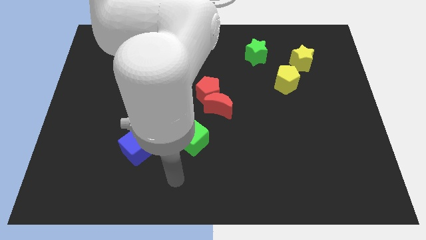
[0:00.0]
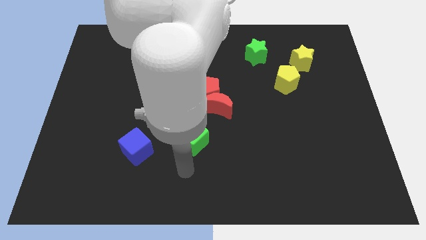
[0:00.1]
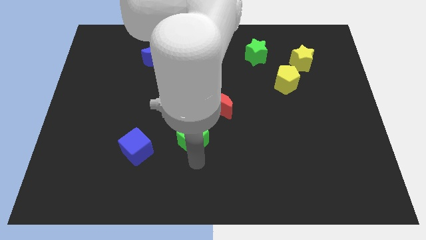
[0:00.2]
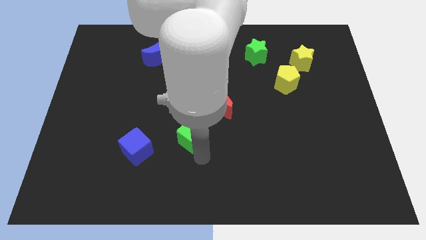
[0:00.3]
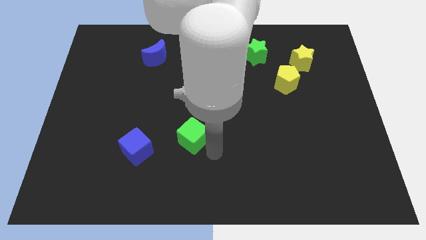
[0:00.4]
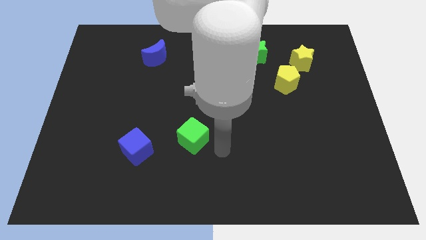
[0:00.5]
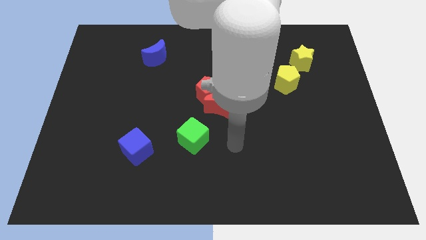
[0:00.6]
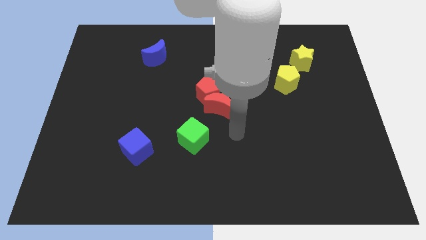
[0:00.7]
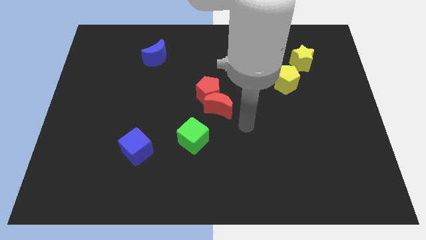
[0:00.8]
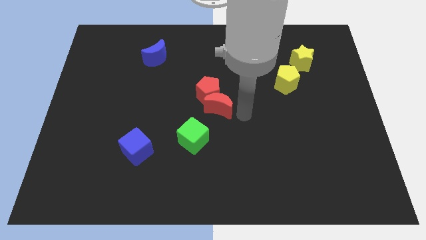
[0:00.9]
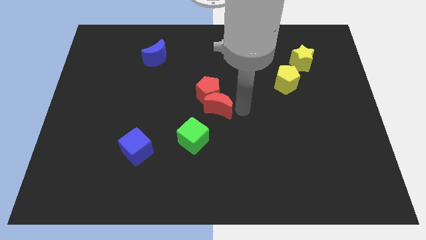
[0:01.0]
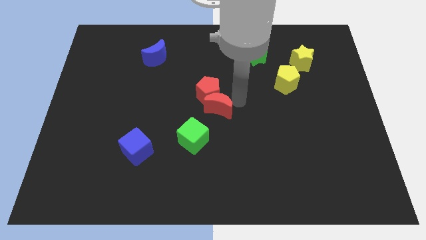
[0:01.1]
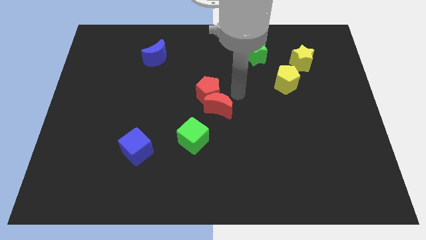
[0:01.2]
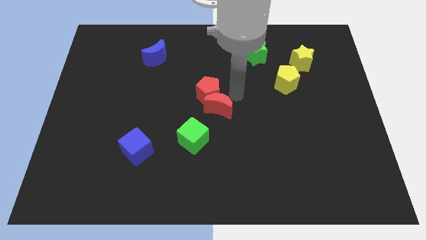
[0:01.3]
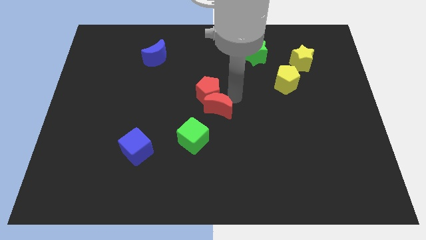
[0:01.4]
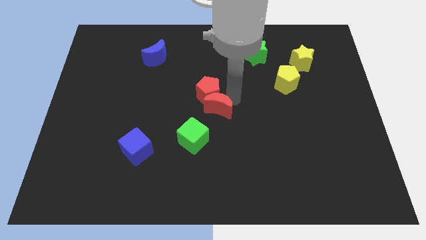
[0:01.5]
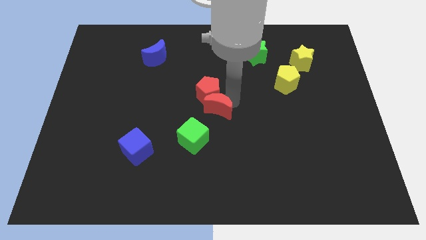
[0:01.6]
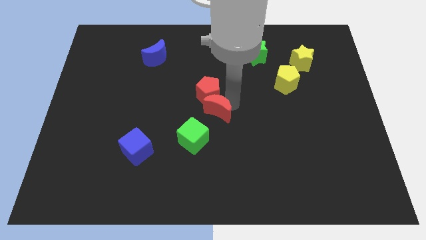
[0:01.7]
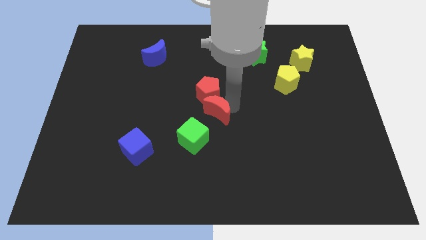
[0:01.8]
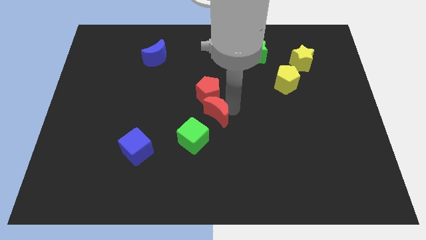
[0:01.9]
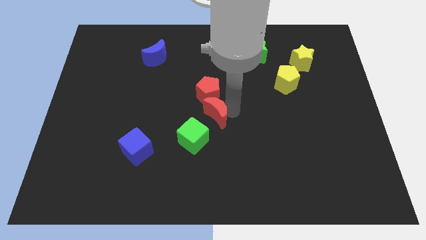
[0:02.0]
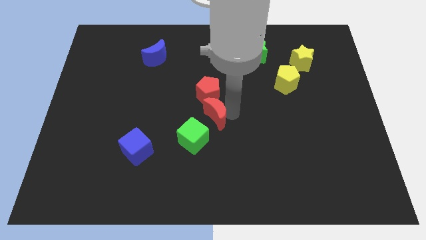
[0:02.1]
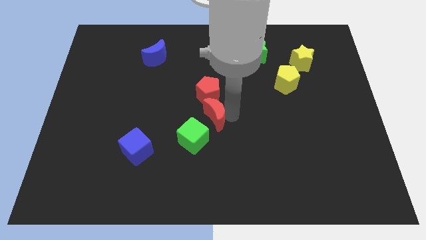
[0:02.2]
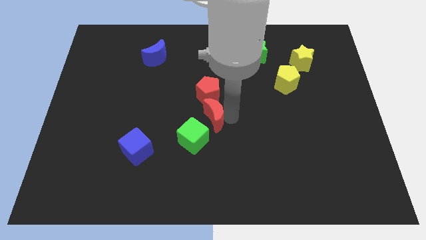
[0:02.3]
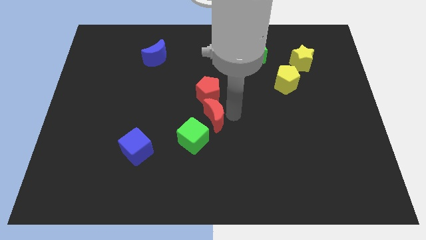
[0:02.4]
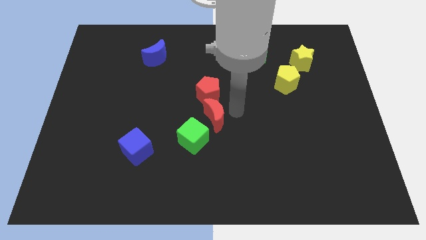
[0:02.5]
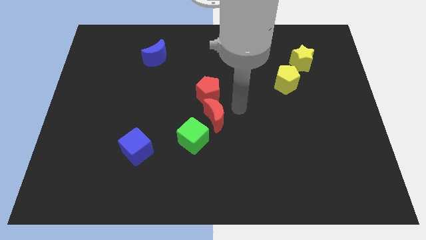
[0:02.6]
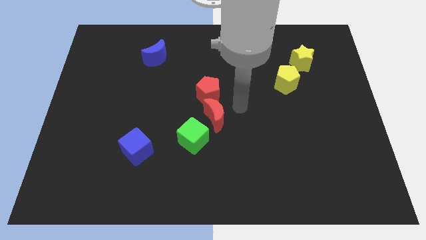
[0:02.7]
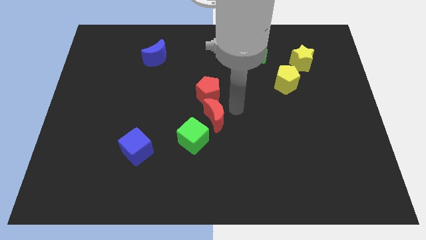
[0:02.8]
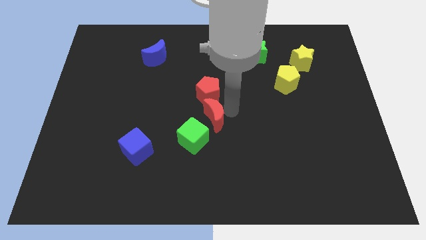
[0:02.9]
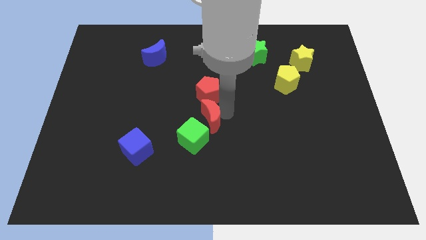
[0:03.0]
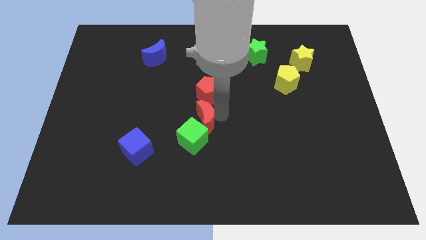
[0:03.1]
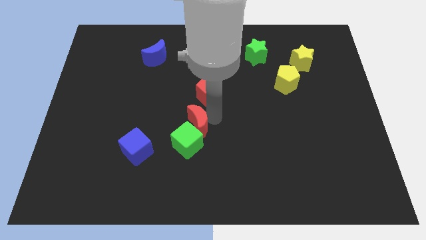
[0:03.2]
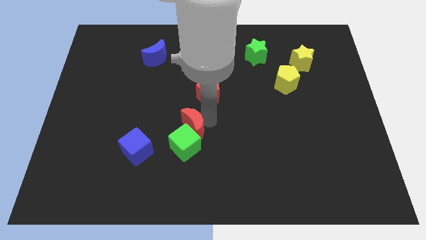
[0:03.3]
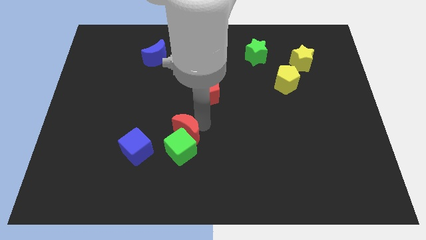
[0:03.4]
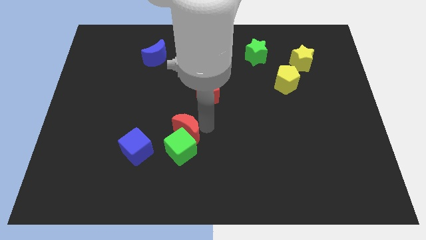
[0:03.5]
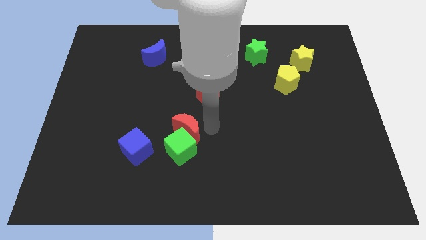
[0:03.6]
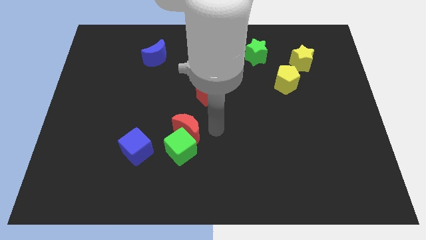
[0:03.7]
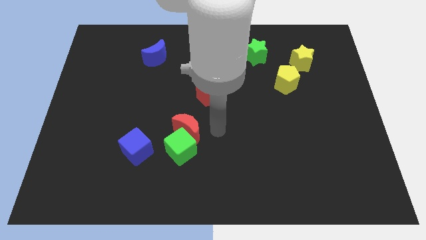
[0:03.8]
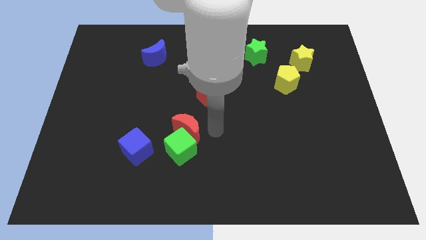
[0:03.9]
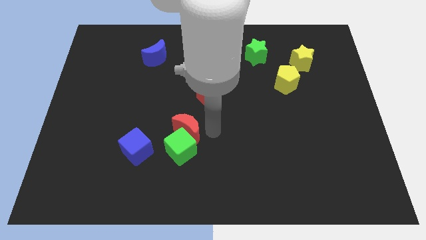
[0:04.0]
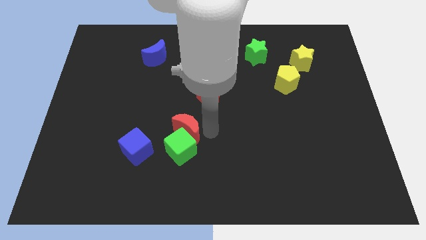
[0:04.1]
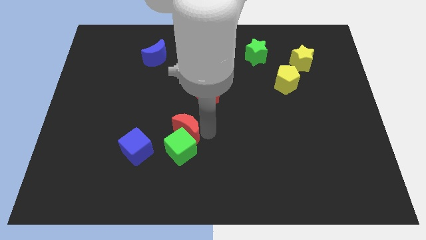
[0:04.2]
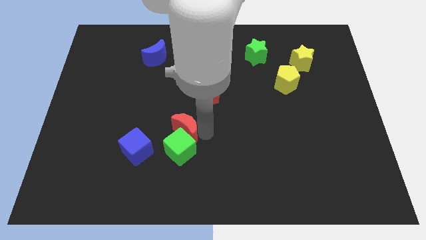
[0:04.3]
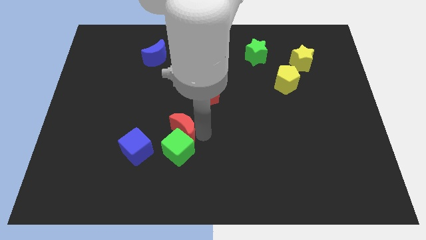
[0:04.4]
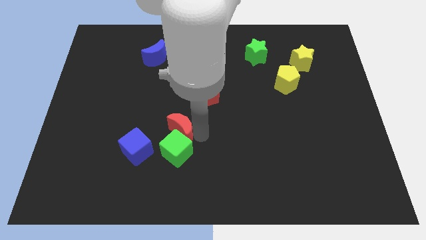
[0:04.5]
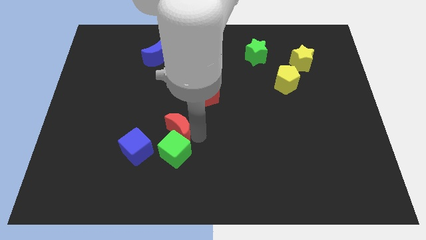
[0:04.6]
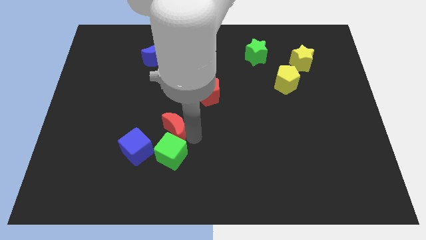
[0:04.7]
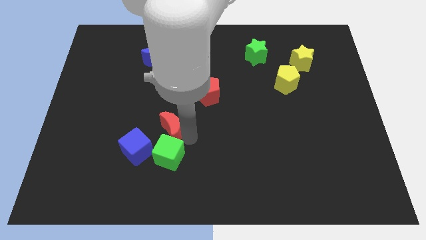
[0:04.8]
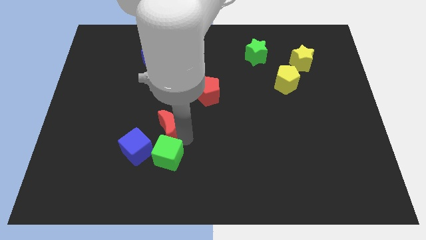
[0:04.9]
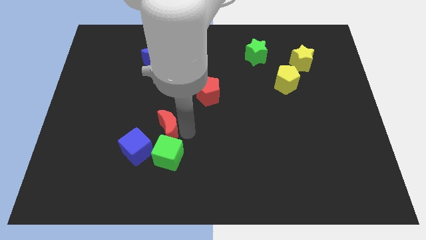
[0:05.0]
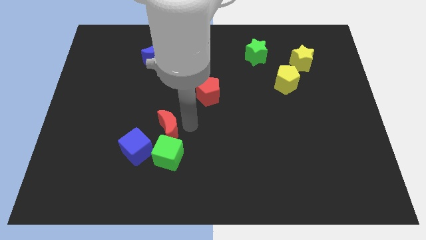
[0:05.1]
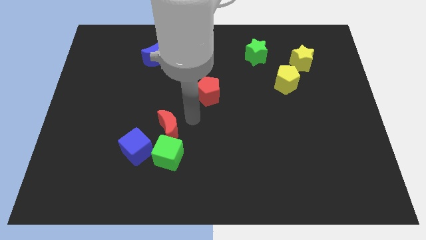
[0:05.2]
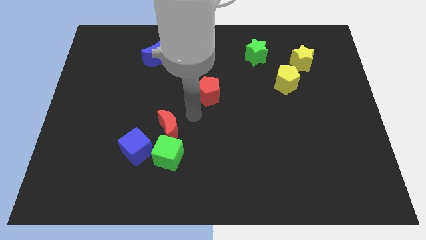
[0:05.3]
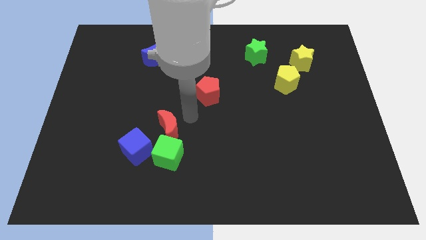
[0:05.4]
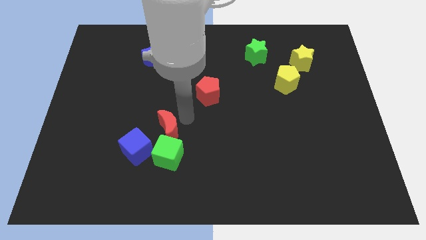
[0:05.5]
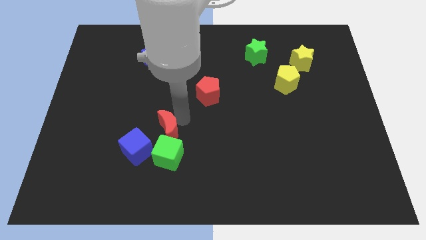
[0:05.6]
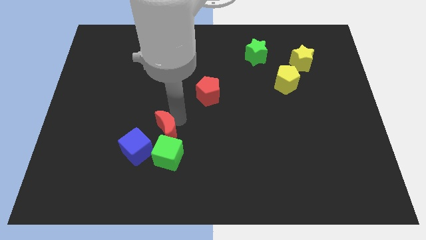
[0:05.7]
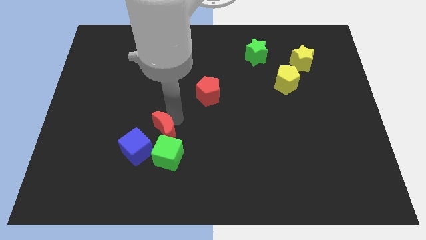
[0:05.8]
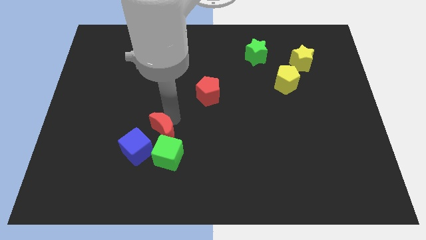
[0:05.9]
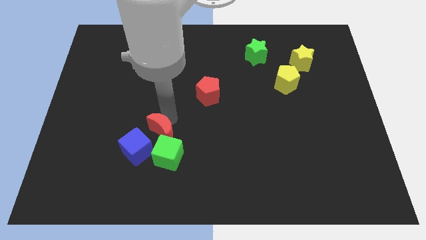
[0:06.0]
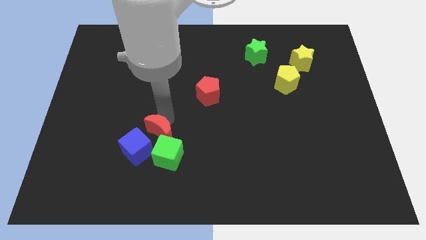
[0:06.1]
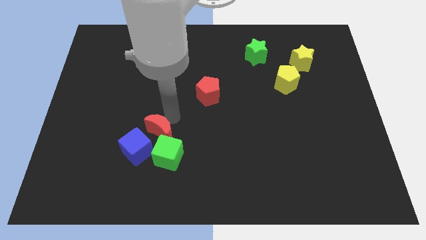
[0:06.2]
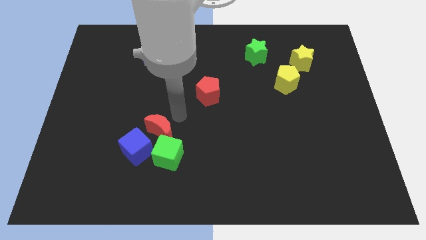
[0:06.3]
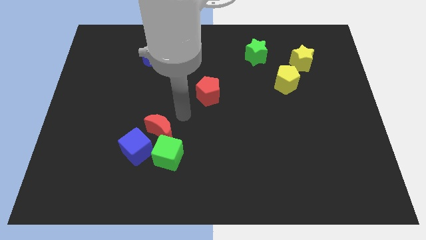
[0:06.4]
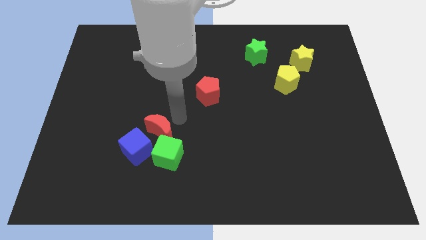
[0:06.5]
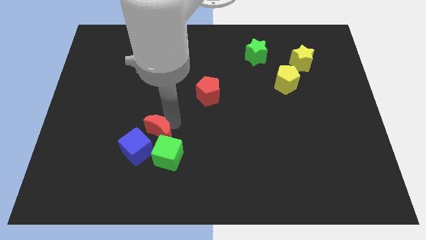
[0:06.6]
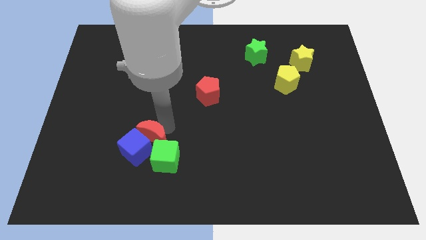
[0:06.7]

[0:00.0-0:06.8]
push the red moon close to the blue cube

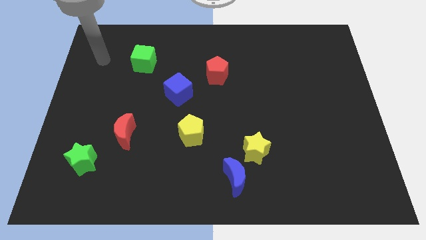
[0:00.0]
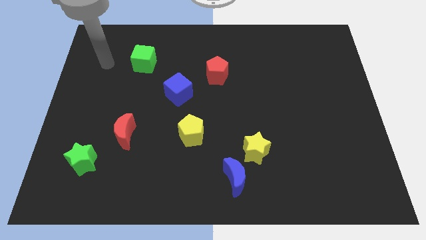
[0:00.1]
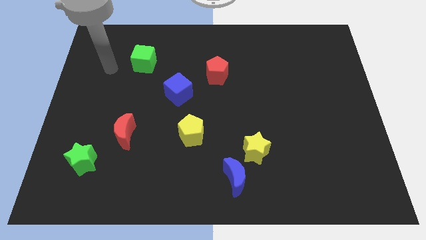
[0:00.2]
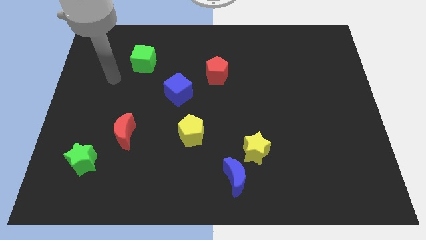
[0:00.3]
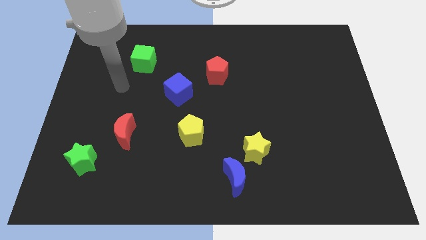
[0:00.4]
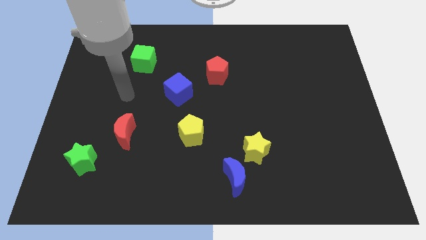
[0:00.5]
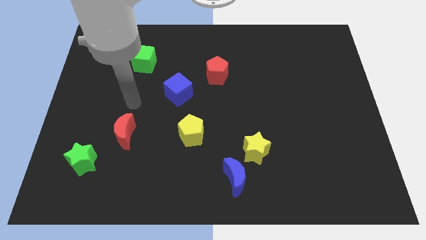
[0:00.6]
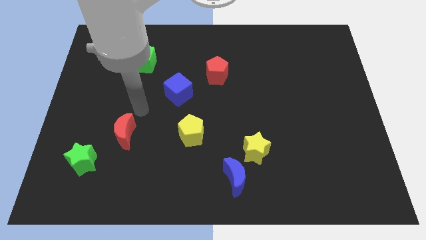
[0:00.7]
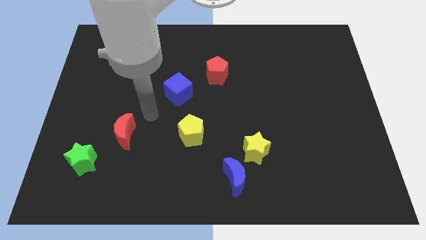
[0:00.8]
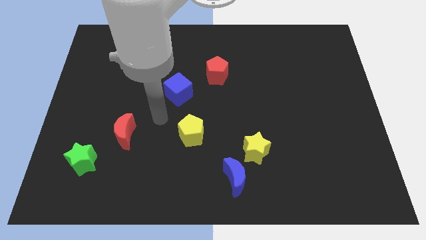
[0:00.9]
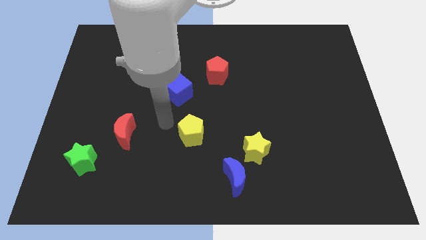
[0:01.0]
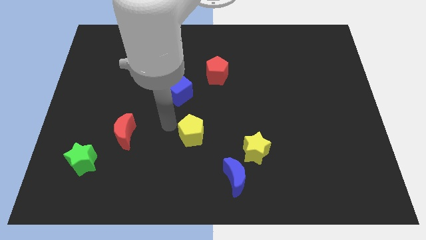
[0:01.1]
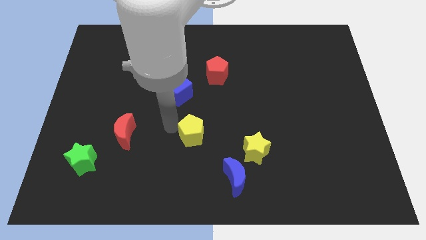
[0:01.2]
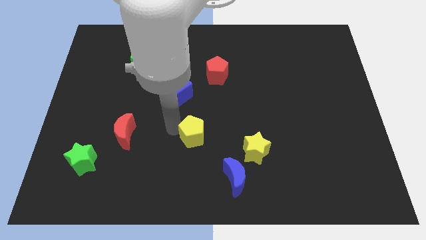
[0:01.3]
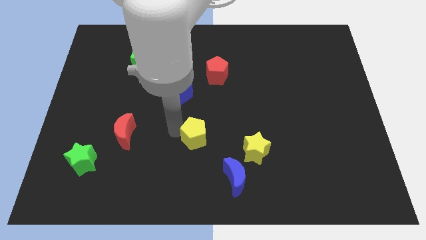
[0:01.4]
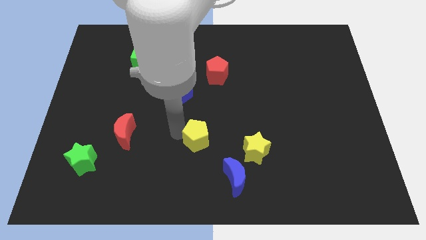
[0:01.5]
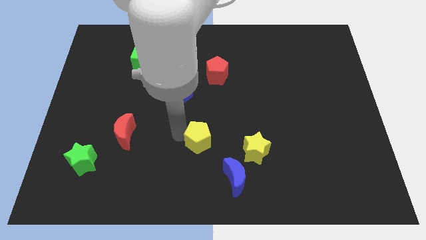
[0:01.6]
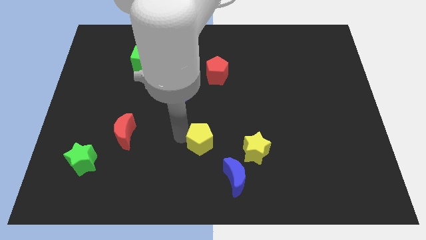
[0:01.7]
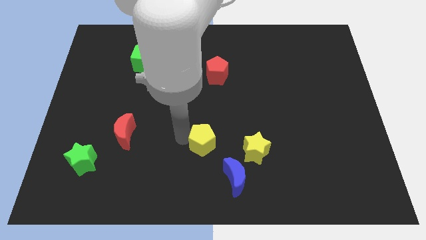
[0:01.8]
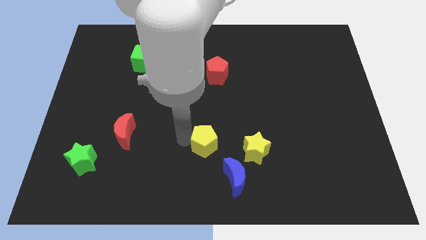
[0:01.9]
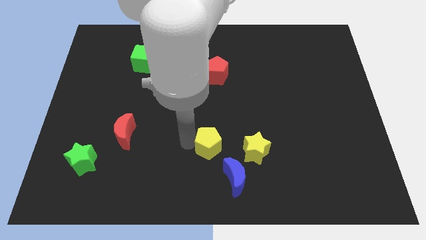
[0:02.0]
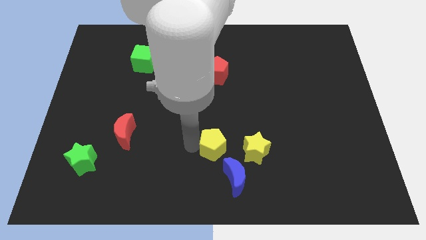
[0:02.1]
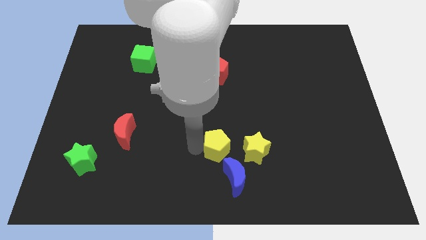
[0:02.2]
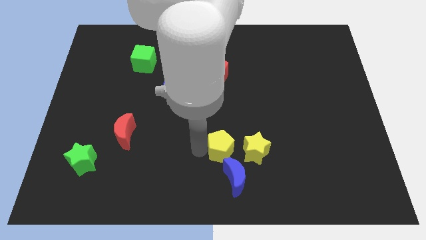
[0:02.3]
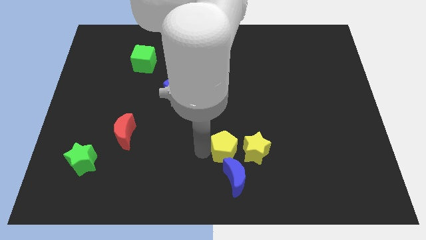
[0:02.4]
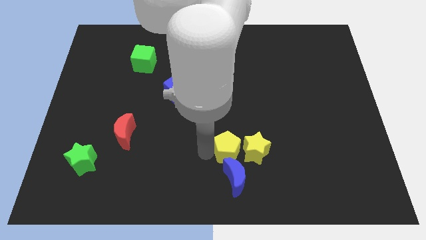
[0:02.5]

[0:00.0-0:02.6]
push the yellow pentagon close to the yellow star
